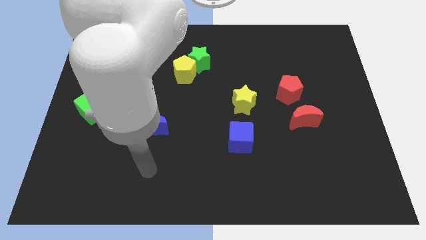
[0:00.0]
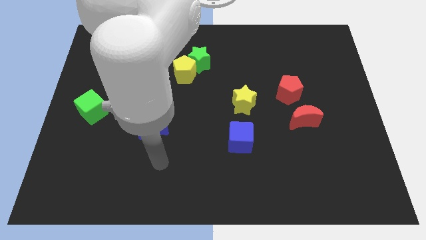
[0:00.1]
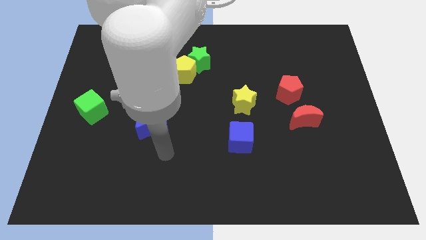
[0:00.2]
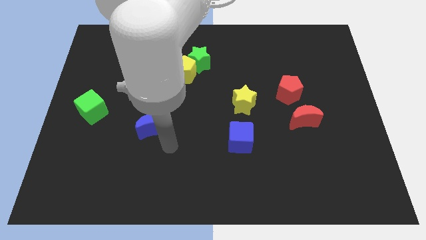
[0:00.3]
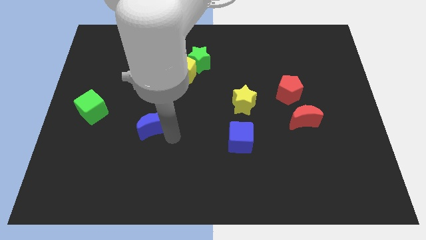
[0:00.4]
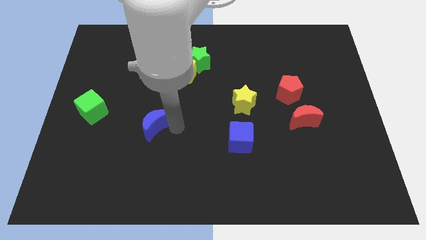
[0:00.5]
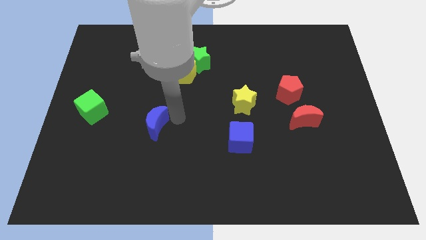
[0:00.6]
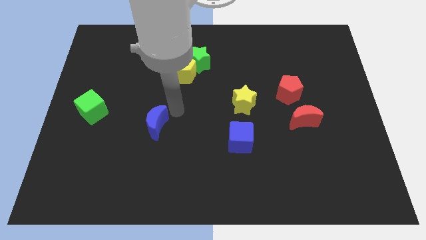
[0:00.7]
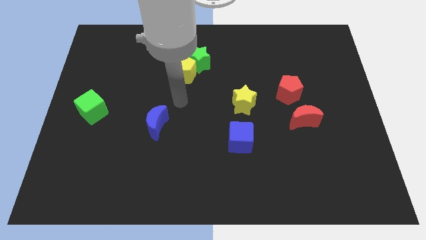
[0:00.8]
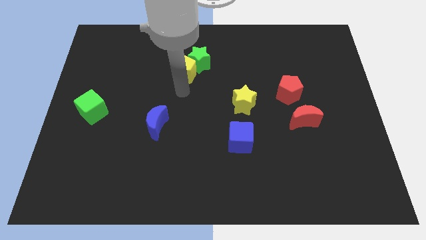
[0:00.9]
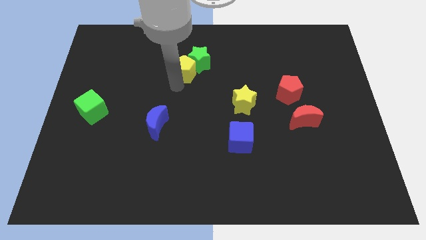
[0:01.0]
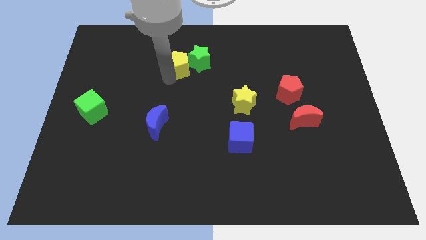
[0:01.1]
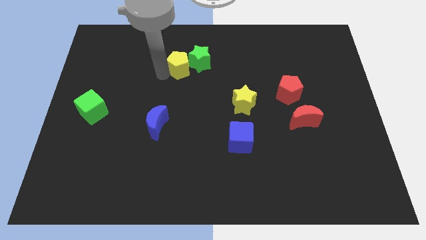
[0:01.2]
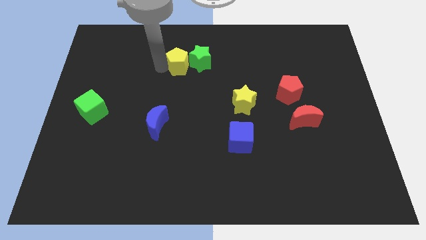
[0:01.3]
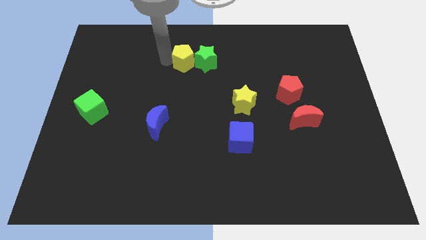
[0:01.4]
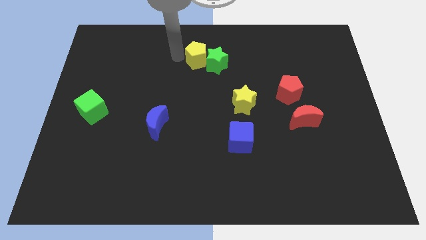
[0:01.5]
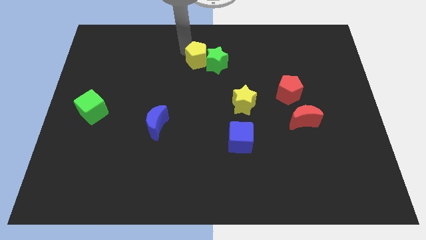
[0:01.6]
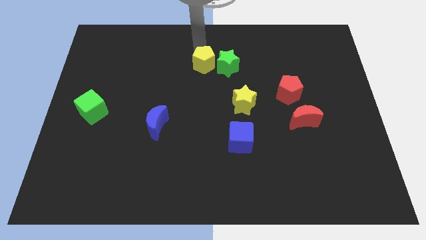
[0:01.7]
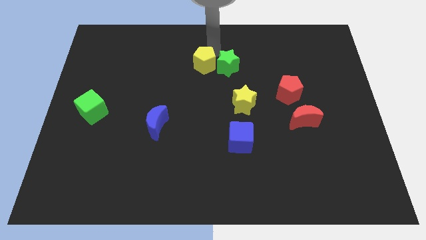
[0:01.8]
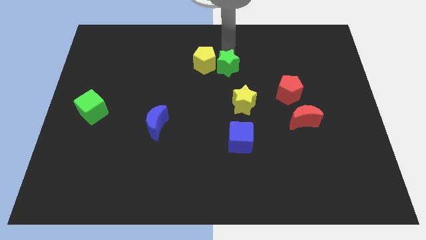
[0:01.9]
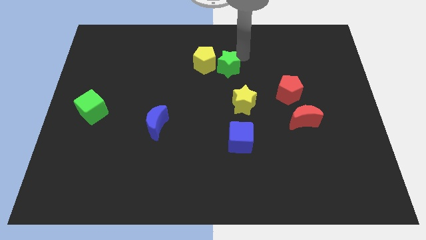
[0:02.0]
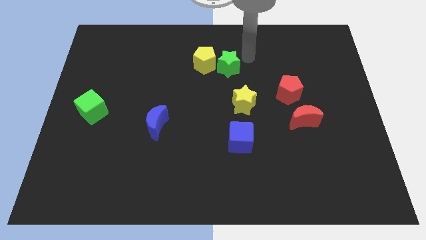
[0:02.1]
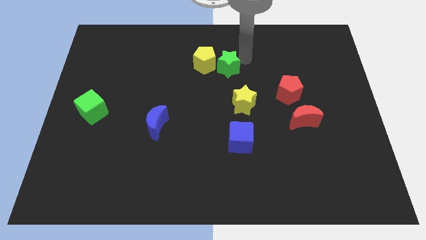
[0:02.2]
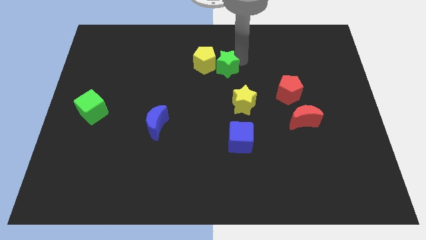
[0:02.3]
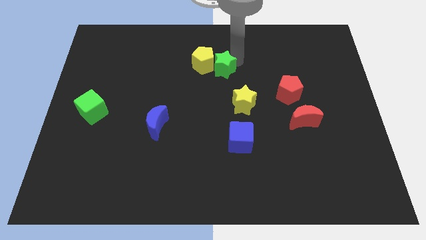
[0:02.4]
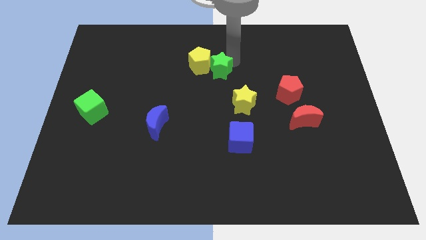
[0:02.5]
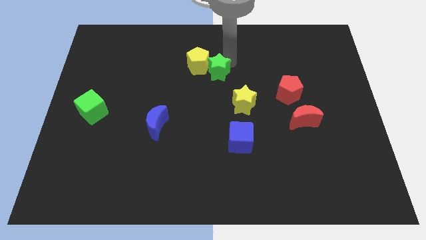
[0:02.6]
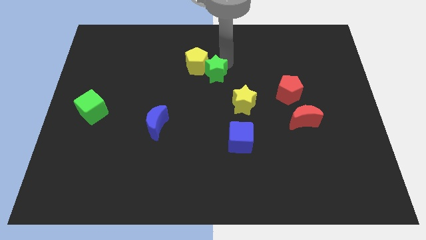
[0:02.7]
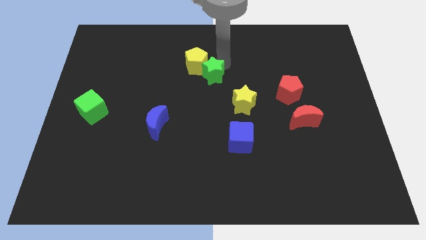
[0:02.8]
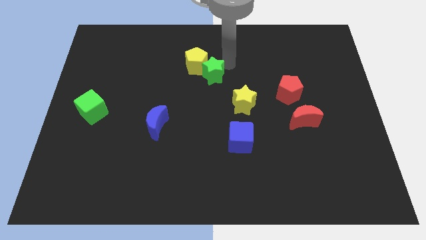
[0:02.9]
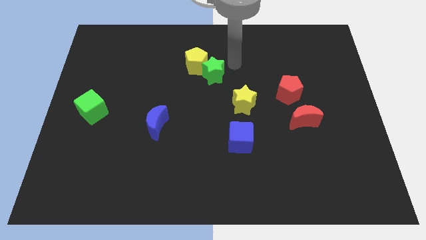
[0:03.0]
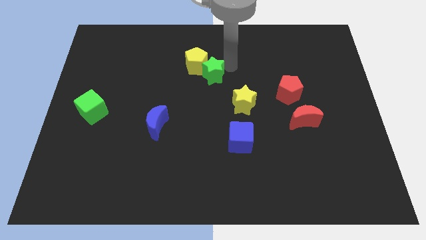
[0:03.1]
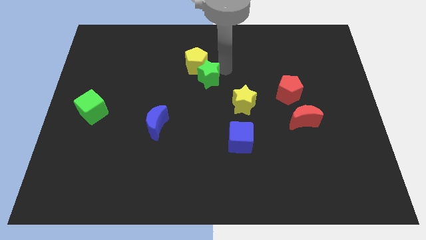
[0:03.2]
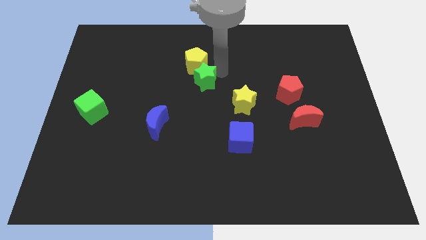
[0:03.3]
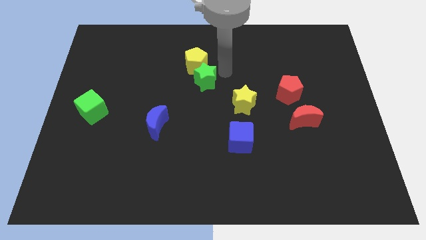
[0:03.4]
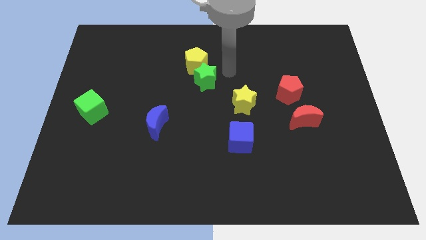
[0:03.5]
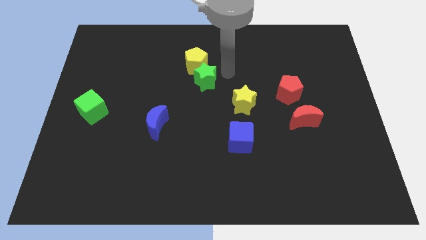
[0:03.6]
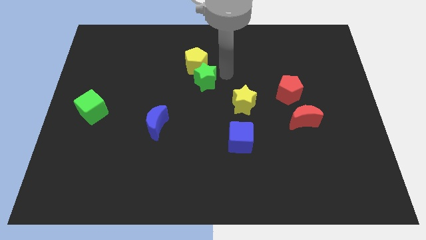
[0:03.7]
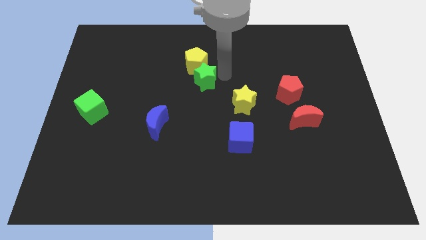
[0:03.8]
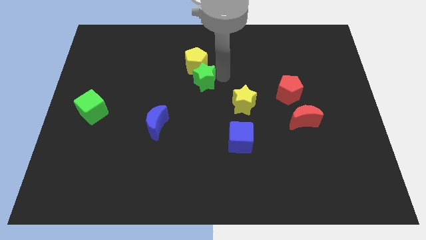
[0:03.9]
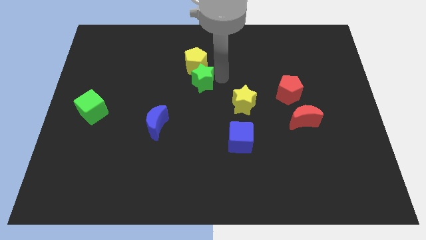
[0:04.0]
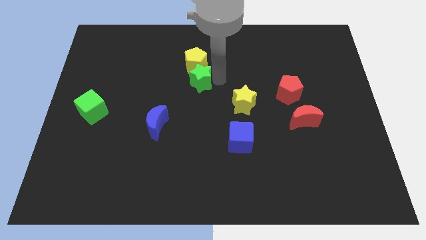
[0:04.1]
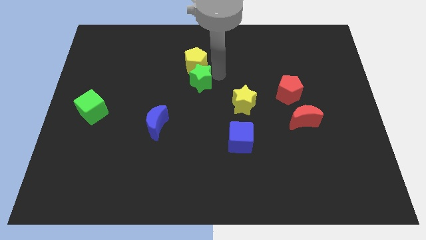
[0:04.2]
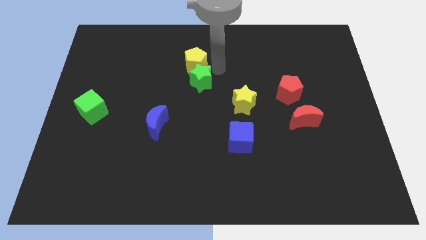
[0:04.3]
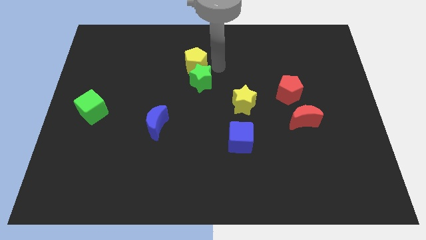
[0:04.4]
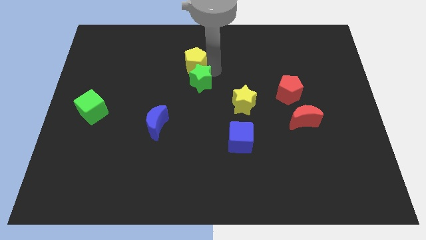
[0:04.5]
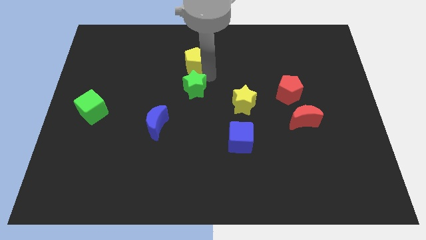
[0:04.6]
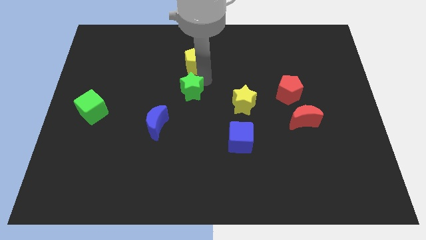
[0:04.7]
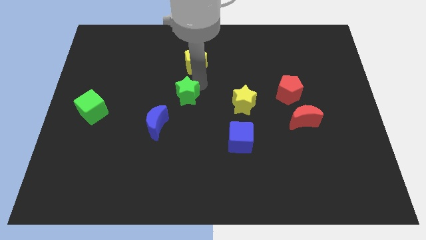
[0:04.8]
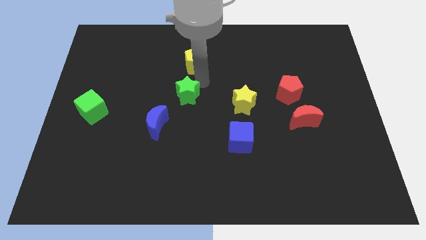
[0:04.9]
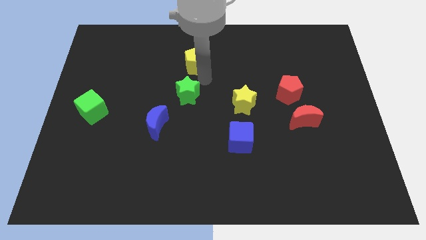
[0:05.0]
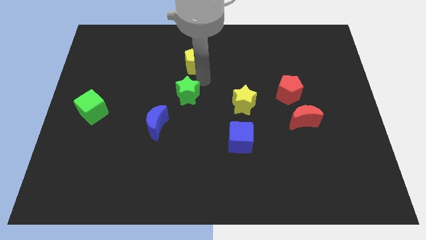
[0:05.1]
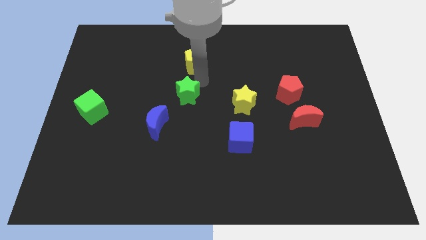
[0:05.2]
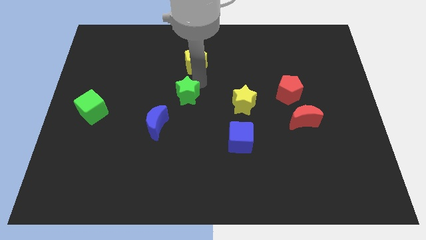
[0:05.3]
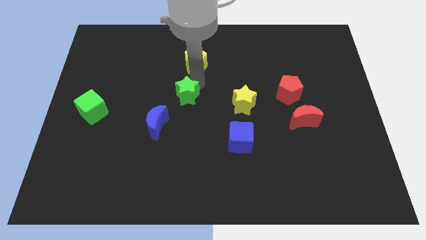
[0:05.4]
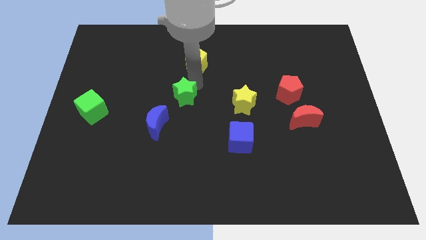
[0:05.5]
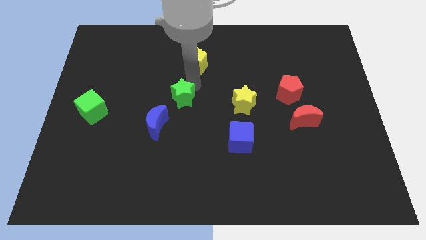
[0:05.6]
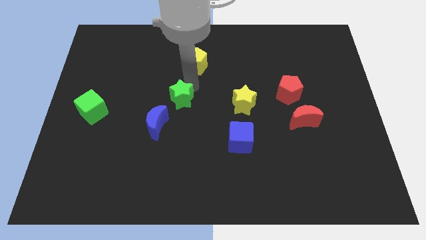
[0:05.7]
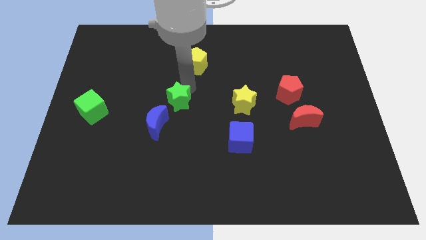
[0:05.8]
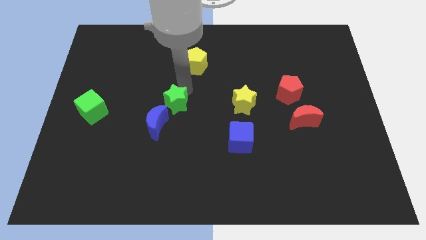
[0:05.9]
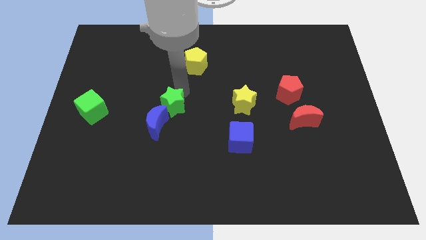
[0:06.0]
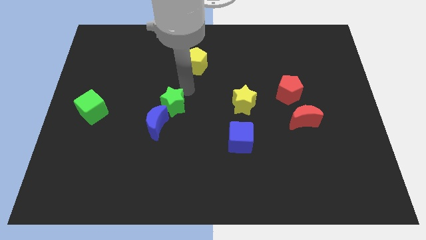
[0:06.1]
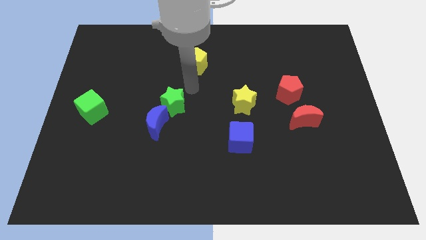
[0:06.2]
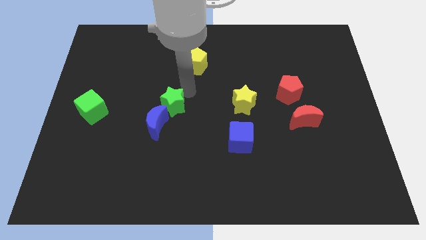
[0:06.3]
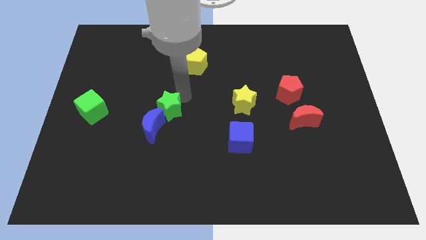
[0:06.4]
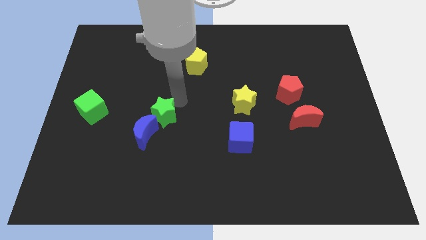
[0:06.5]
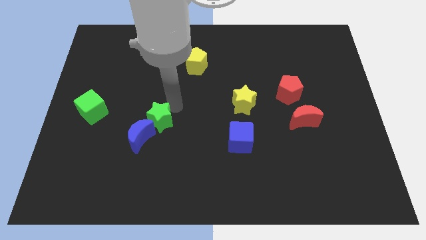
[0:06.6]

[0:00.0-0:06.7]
slide the green star next to the blue moon
